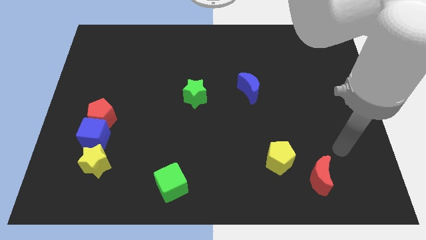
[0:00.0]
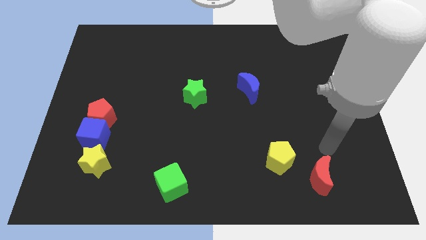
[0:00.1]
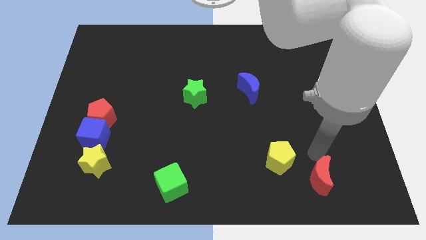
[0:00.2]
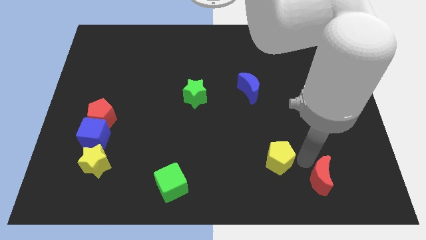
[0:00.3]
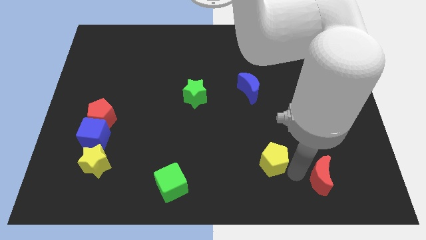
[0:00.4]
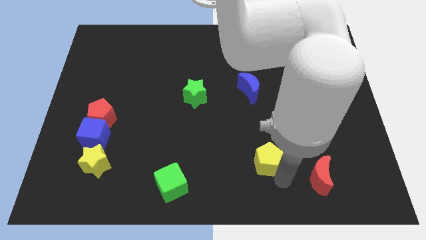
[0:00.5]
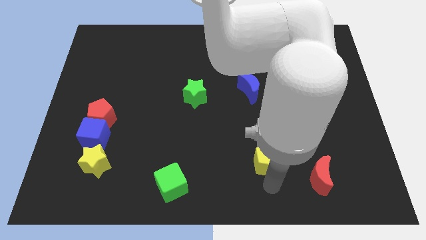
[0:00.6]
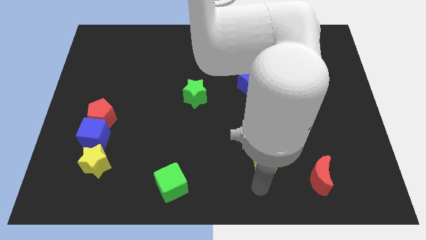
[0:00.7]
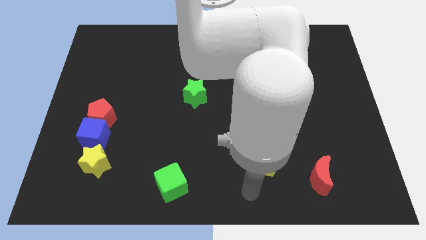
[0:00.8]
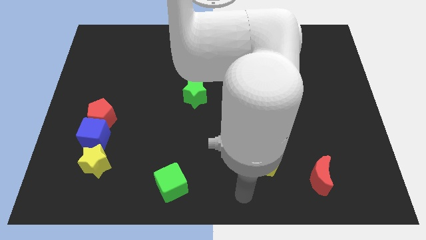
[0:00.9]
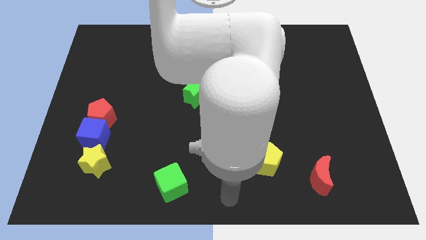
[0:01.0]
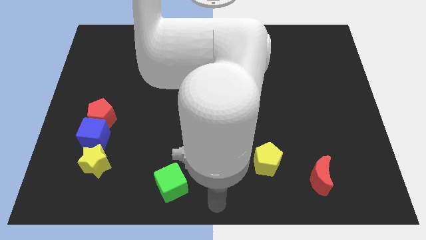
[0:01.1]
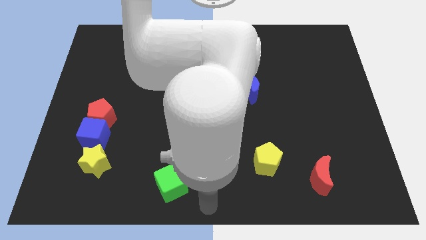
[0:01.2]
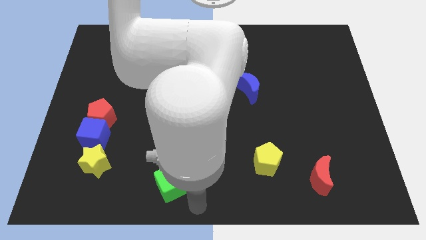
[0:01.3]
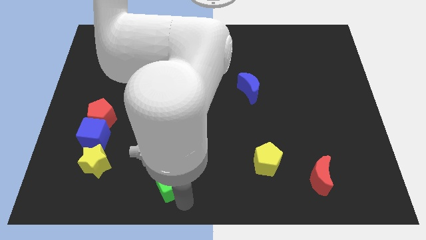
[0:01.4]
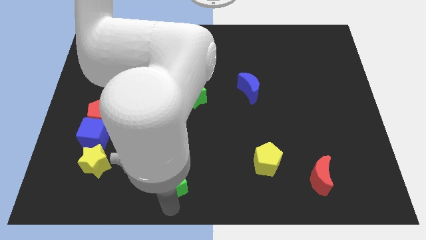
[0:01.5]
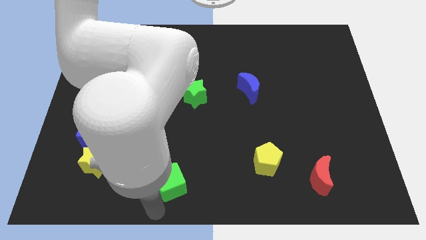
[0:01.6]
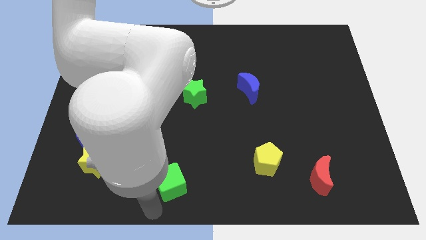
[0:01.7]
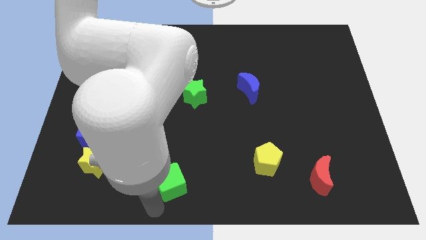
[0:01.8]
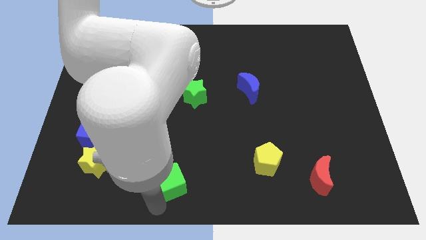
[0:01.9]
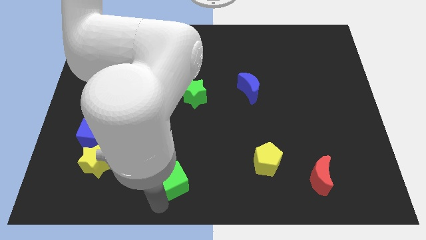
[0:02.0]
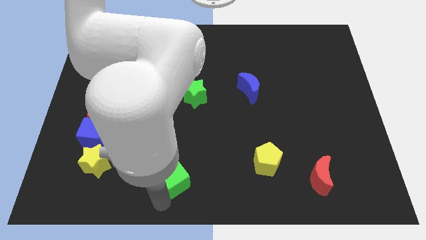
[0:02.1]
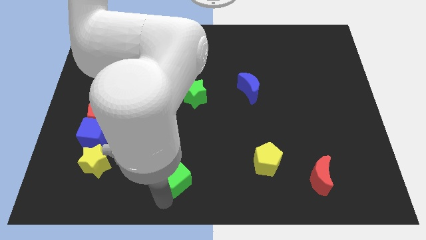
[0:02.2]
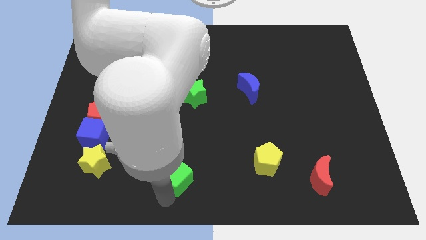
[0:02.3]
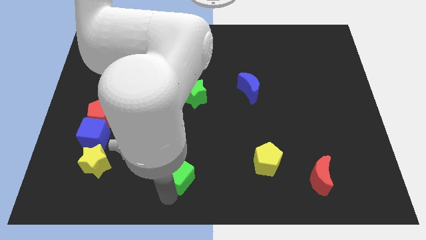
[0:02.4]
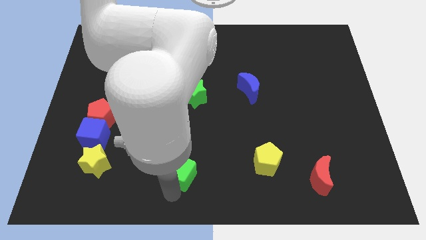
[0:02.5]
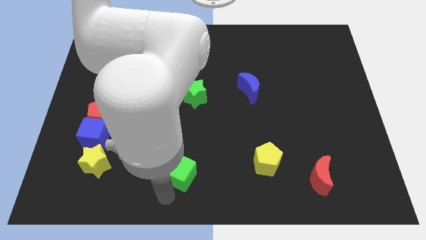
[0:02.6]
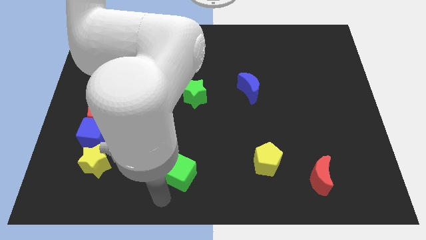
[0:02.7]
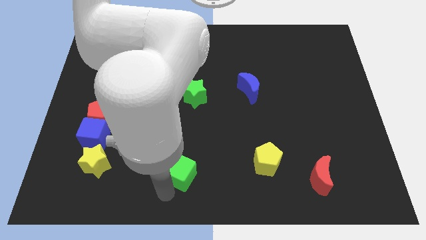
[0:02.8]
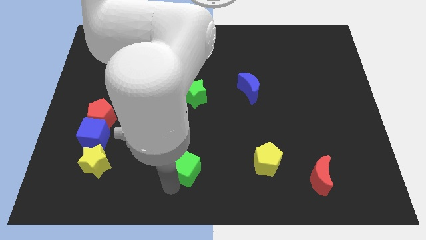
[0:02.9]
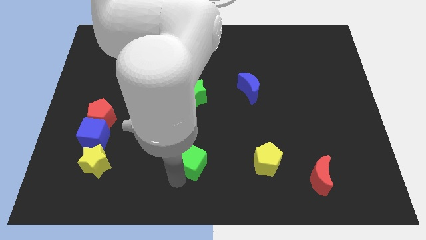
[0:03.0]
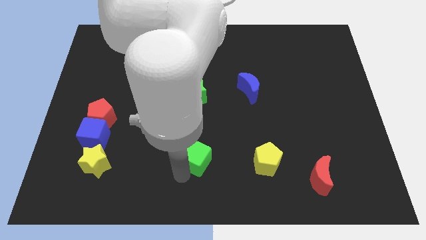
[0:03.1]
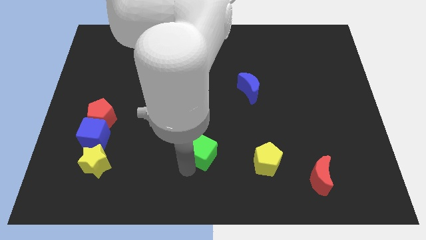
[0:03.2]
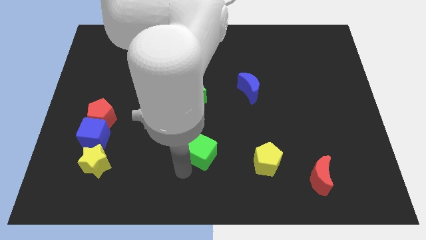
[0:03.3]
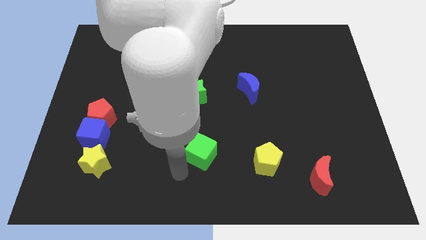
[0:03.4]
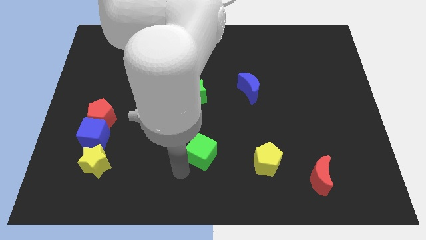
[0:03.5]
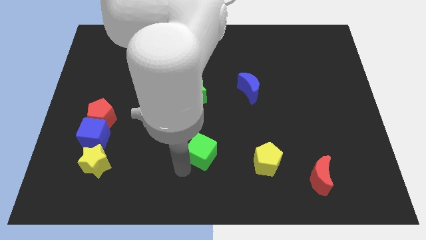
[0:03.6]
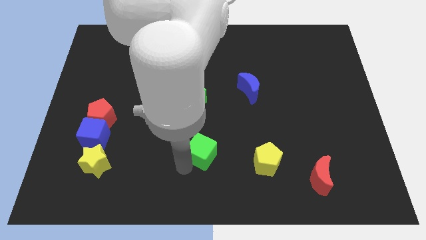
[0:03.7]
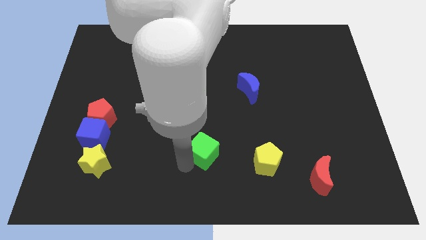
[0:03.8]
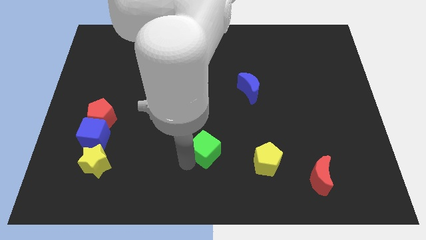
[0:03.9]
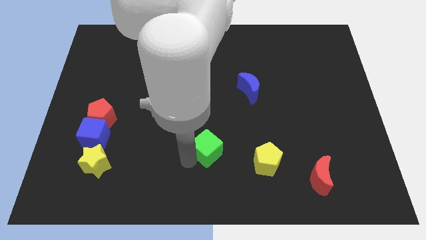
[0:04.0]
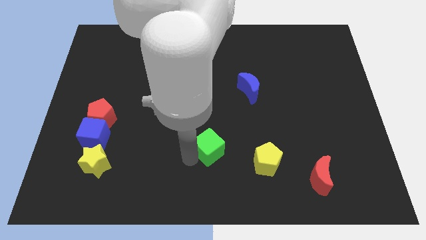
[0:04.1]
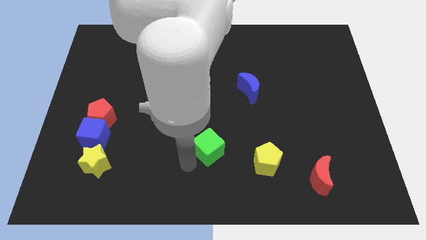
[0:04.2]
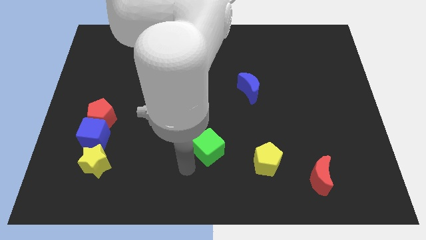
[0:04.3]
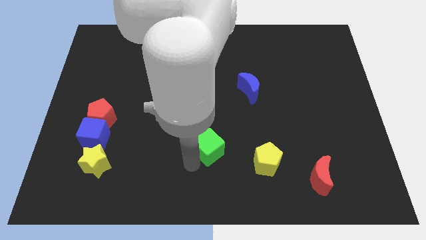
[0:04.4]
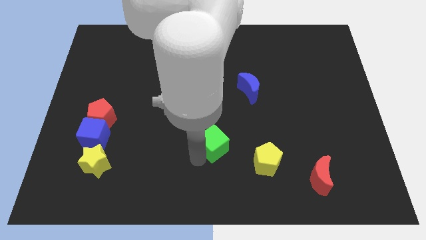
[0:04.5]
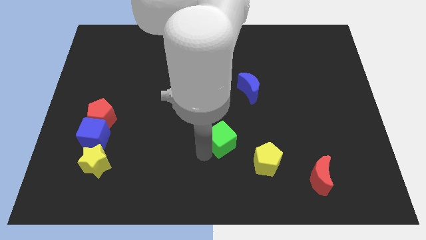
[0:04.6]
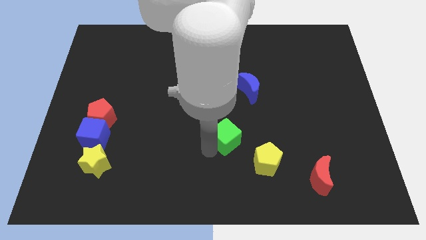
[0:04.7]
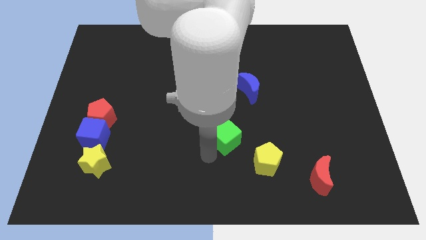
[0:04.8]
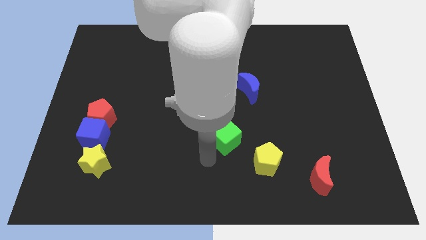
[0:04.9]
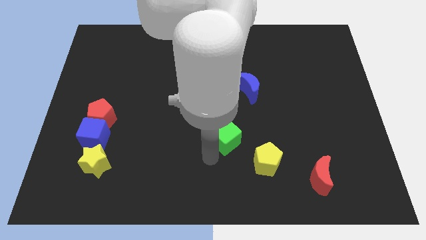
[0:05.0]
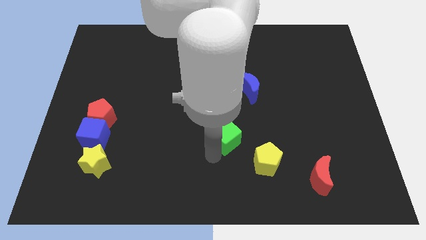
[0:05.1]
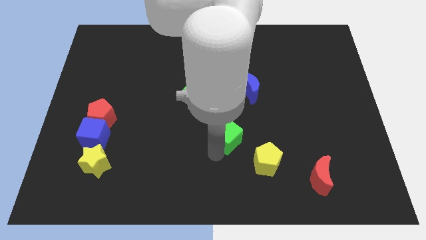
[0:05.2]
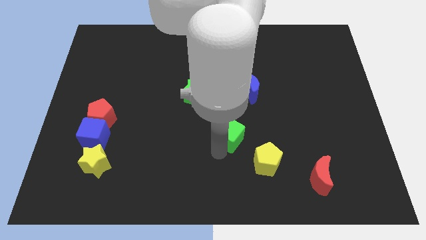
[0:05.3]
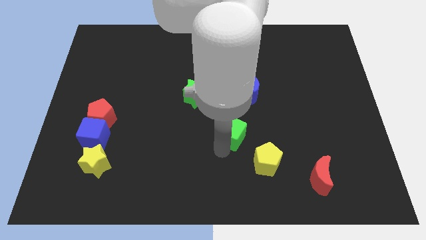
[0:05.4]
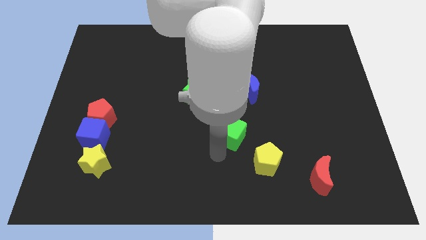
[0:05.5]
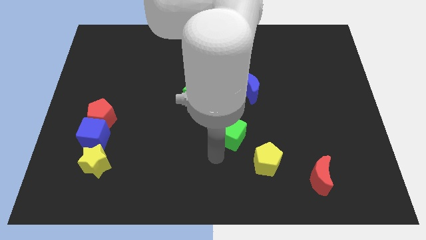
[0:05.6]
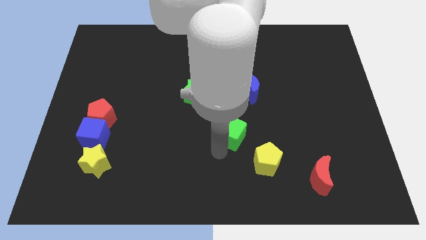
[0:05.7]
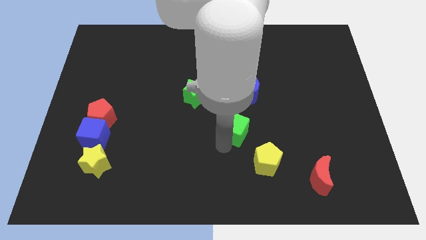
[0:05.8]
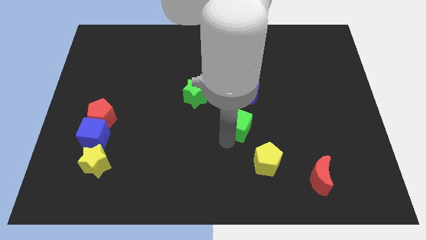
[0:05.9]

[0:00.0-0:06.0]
slide the green cube upwards and then to the right

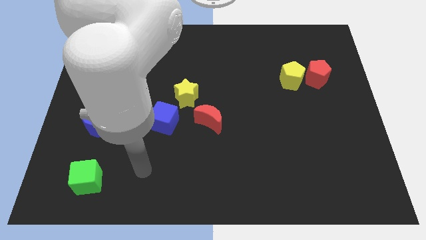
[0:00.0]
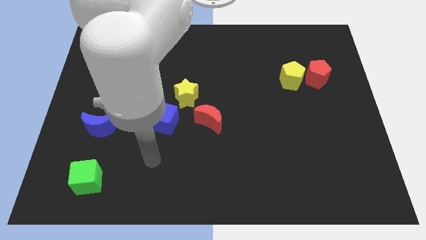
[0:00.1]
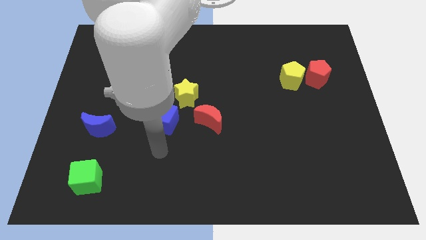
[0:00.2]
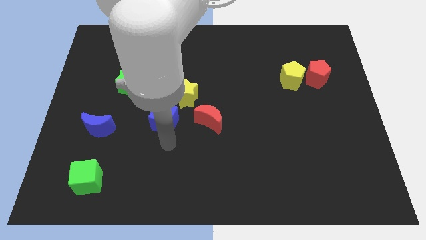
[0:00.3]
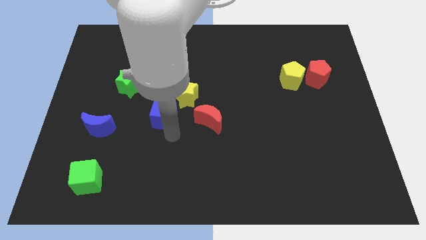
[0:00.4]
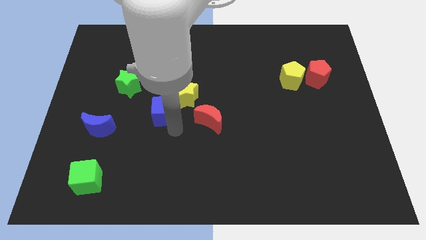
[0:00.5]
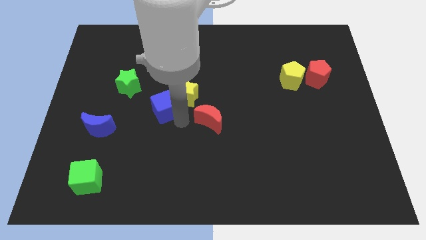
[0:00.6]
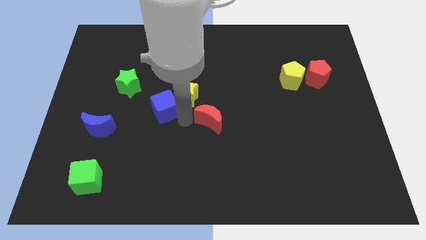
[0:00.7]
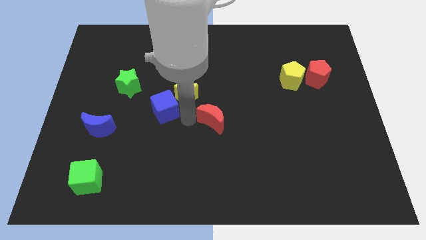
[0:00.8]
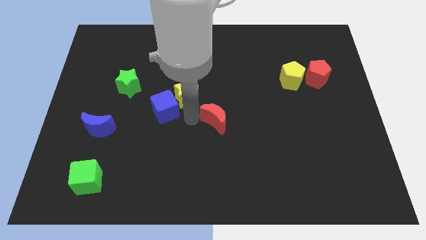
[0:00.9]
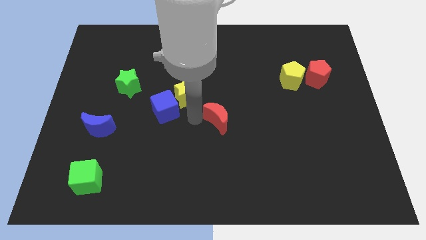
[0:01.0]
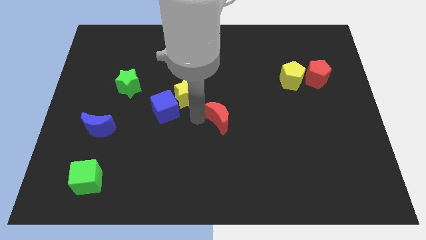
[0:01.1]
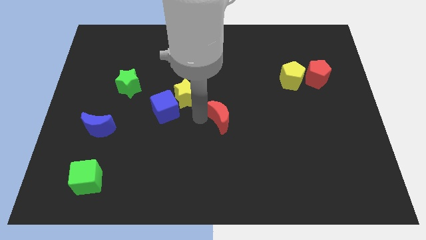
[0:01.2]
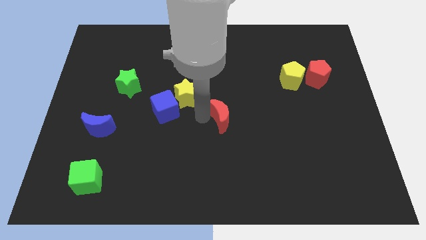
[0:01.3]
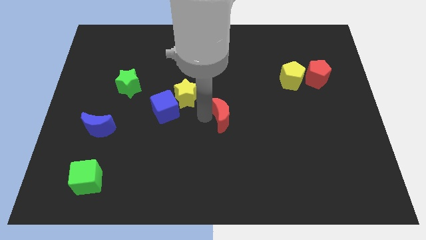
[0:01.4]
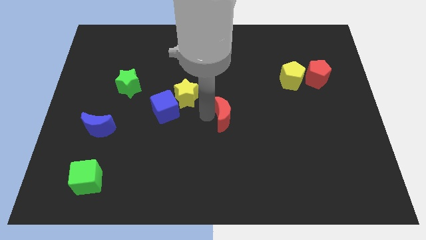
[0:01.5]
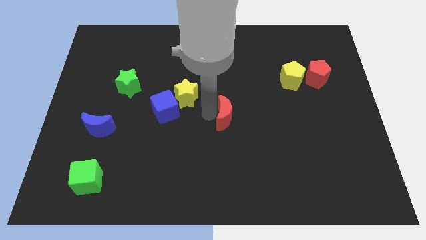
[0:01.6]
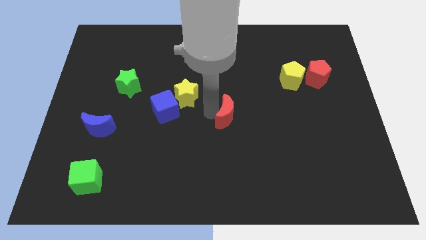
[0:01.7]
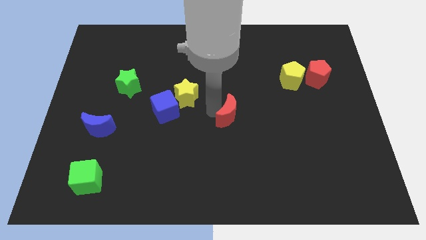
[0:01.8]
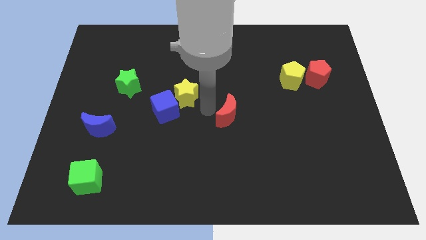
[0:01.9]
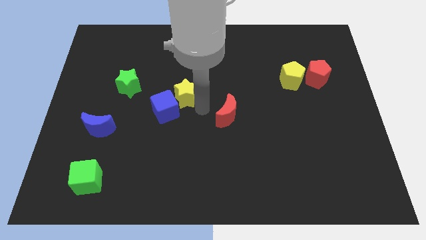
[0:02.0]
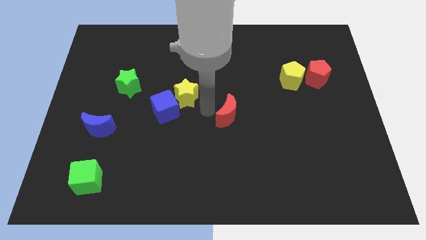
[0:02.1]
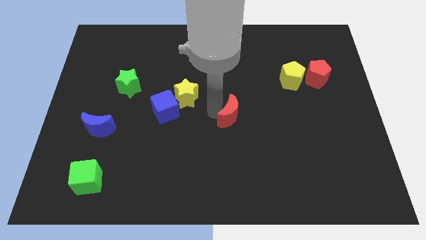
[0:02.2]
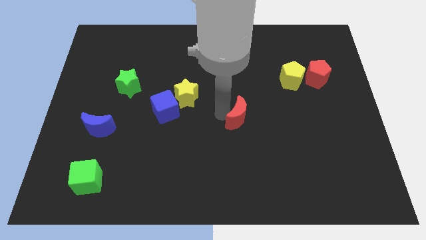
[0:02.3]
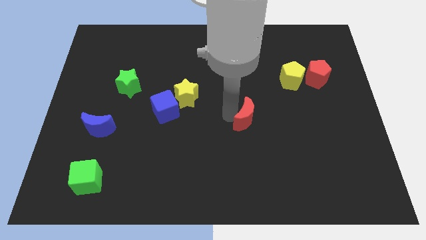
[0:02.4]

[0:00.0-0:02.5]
push the red moon to the right a bit
